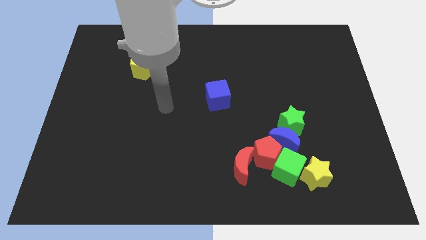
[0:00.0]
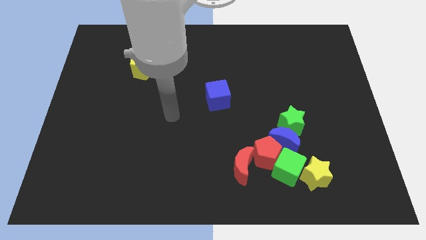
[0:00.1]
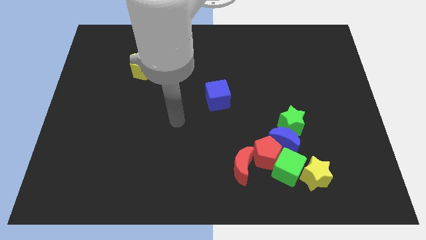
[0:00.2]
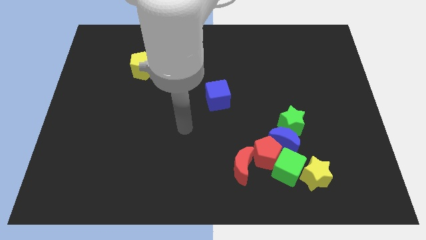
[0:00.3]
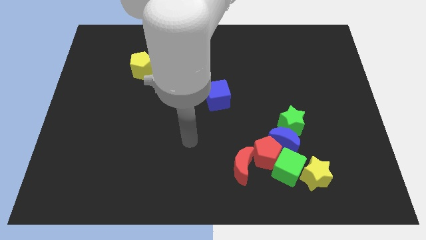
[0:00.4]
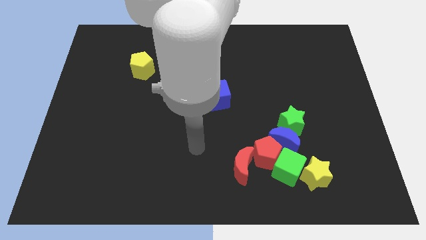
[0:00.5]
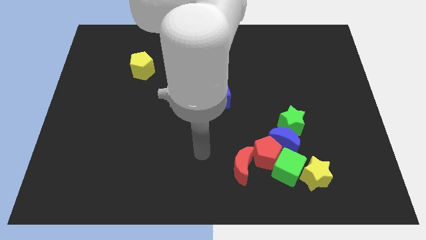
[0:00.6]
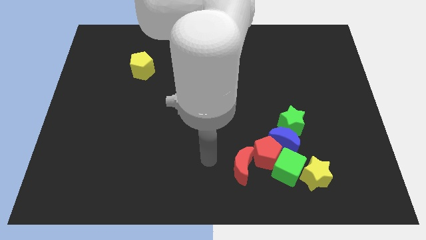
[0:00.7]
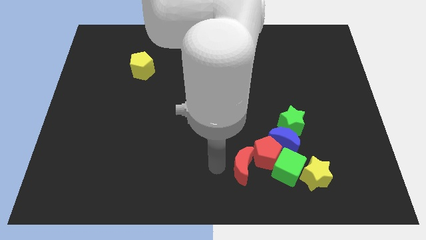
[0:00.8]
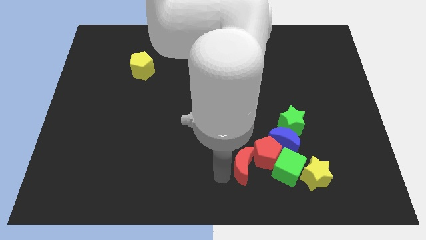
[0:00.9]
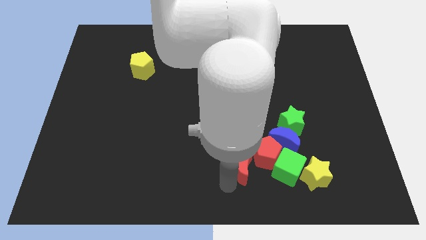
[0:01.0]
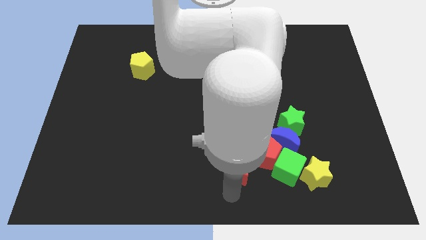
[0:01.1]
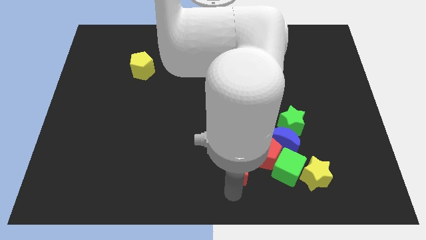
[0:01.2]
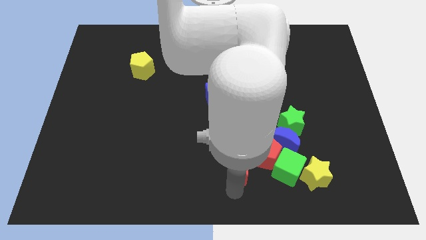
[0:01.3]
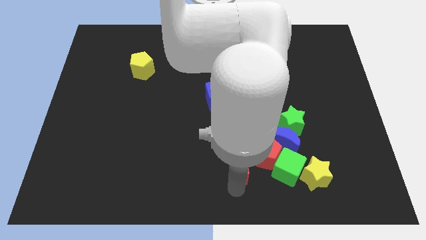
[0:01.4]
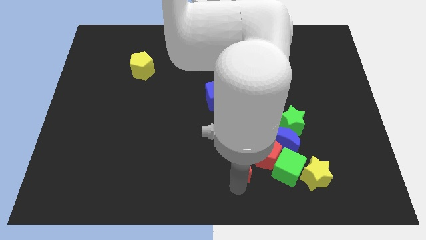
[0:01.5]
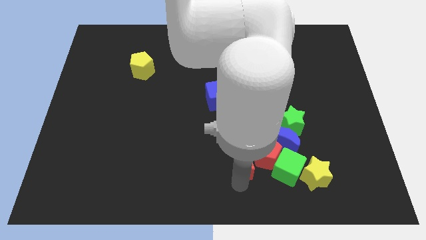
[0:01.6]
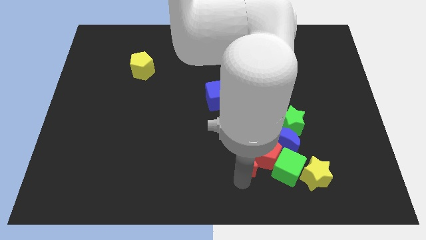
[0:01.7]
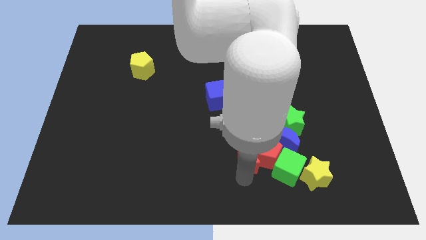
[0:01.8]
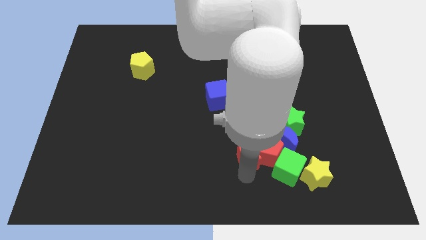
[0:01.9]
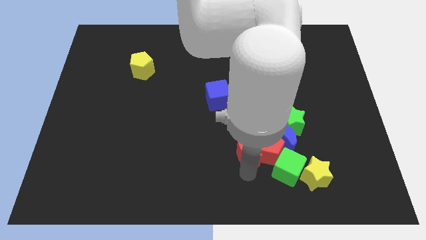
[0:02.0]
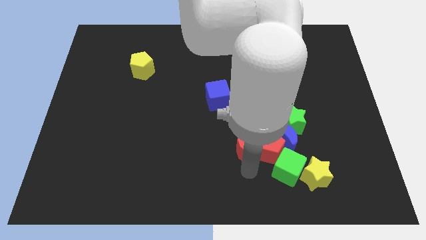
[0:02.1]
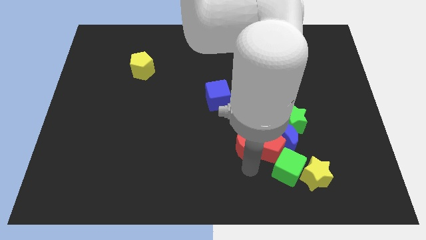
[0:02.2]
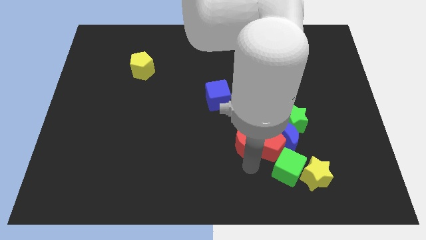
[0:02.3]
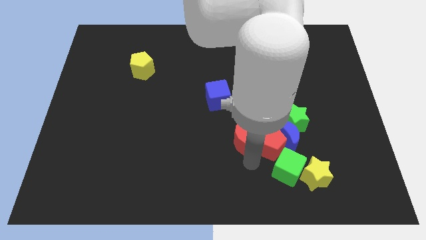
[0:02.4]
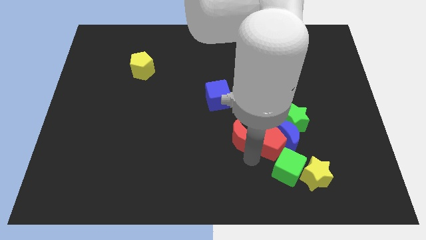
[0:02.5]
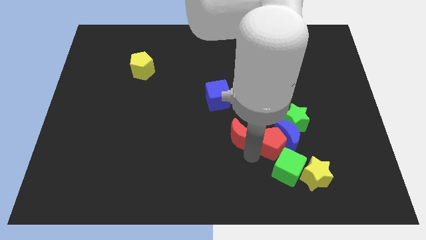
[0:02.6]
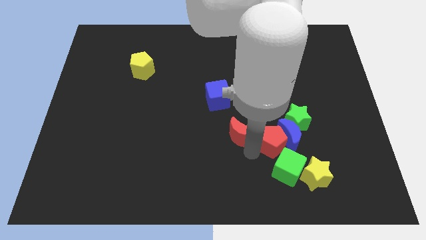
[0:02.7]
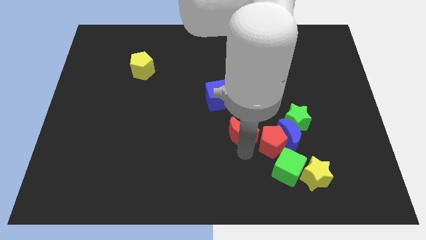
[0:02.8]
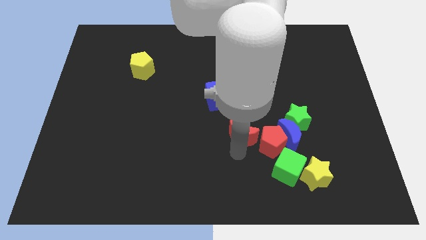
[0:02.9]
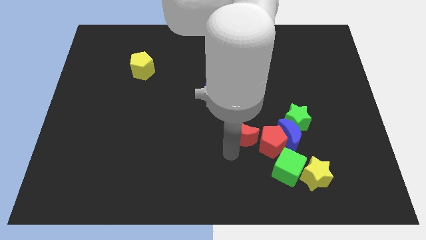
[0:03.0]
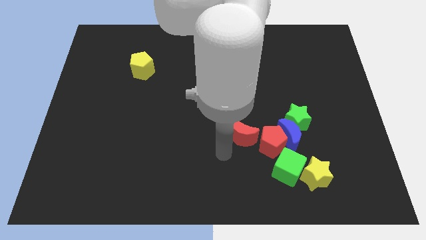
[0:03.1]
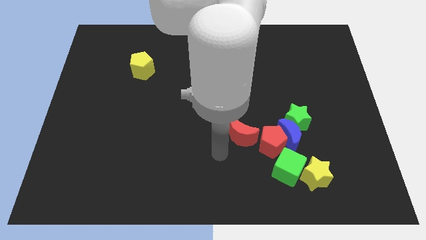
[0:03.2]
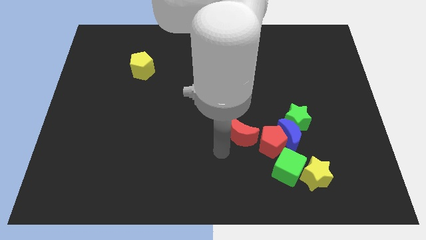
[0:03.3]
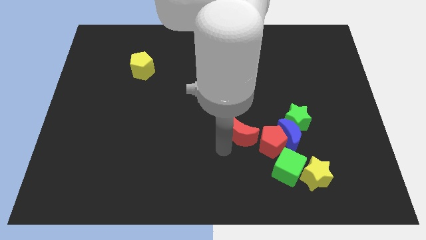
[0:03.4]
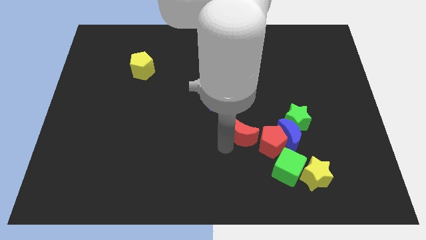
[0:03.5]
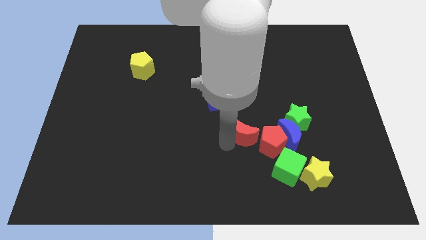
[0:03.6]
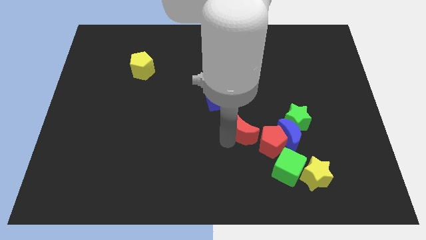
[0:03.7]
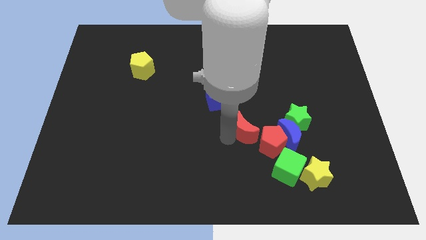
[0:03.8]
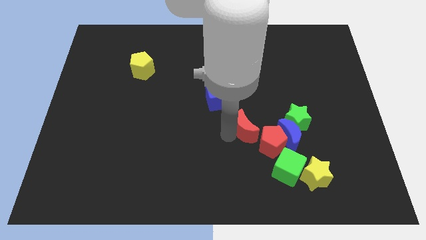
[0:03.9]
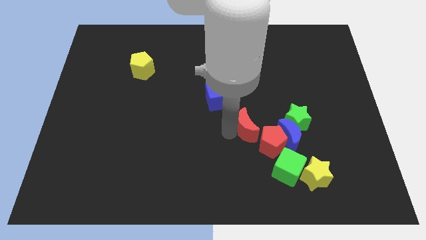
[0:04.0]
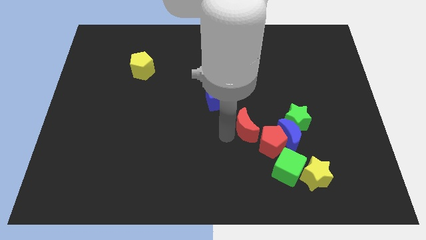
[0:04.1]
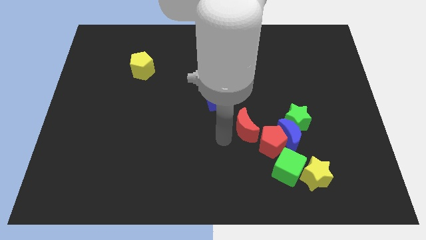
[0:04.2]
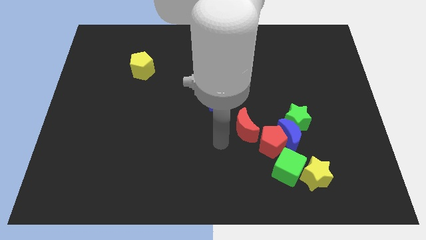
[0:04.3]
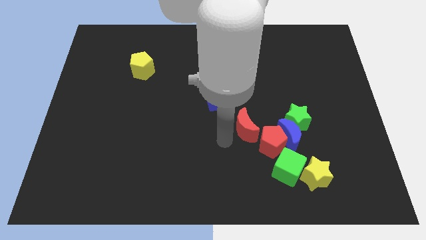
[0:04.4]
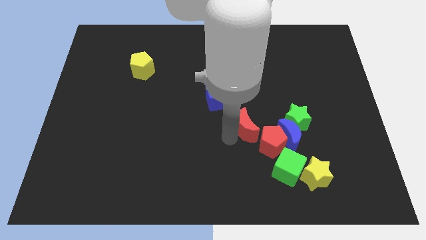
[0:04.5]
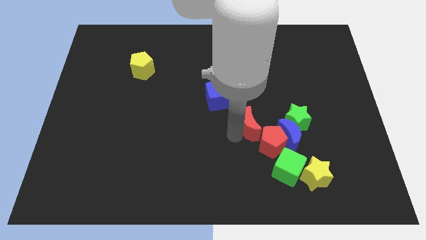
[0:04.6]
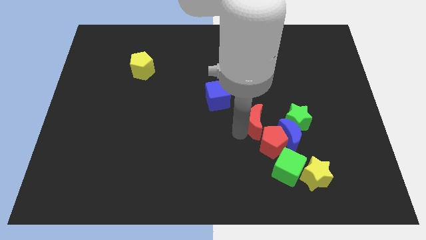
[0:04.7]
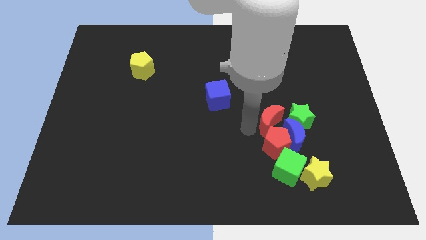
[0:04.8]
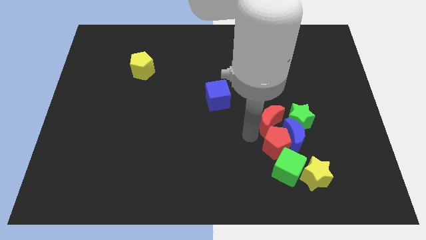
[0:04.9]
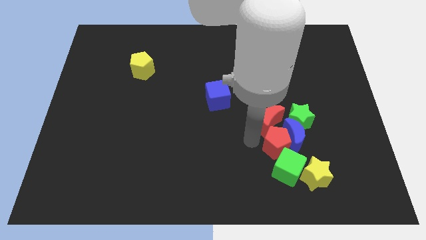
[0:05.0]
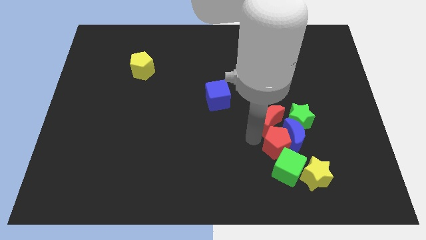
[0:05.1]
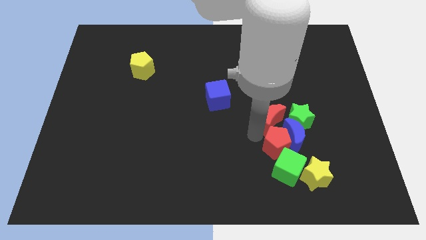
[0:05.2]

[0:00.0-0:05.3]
move the red moon to the top of the blue moon

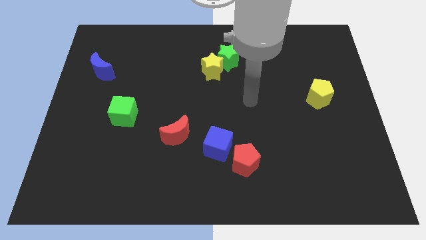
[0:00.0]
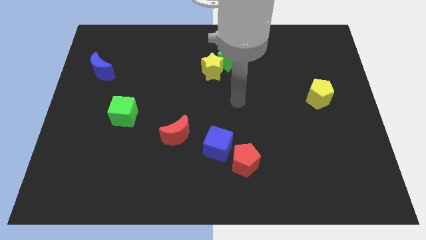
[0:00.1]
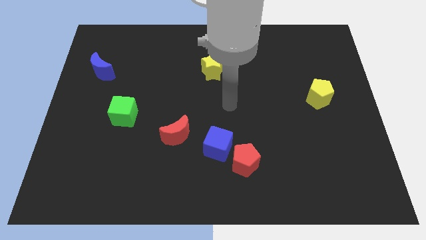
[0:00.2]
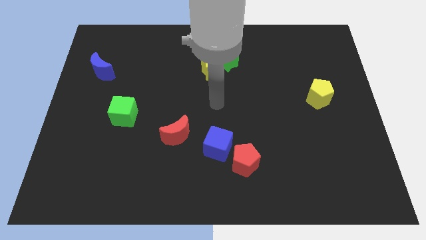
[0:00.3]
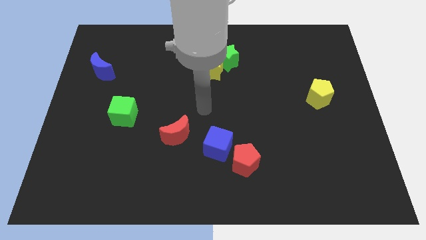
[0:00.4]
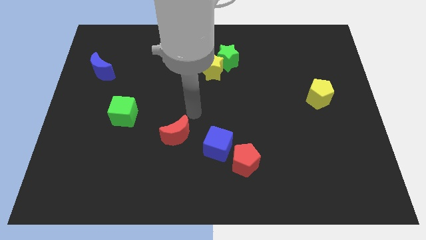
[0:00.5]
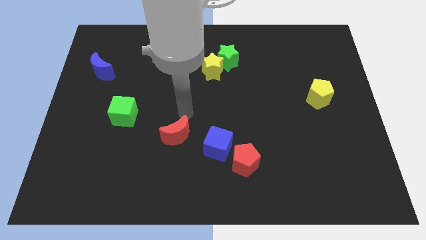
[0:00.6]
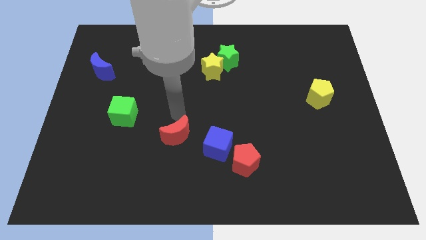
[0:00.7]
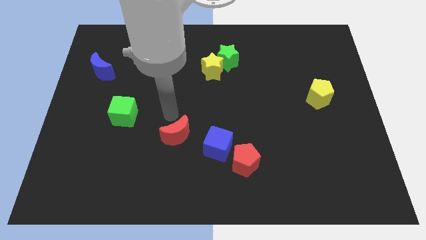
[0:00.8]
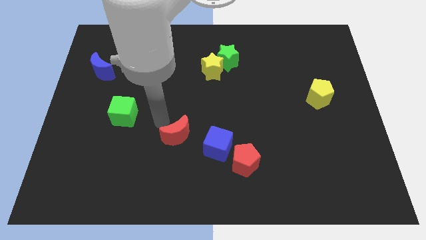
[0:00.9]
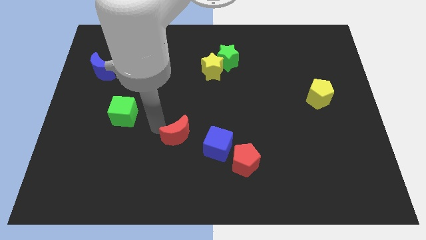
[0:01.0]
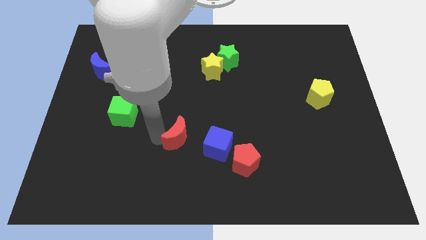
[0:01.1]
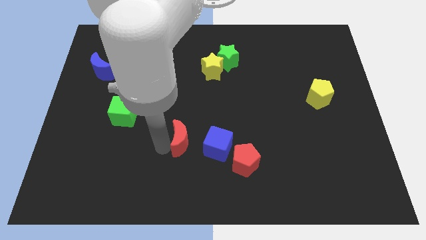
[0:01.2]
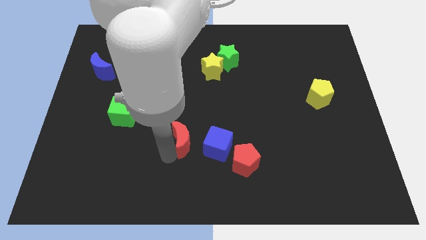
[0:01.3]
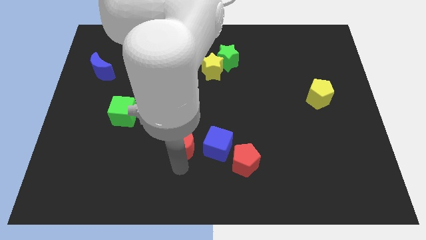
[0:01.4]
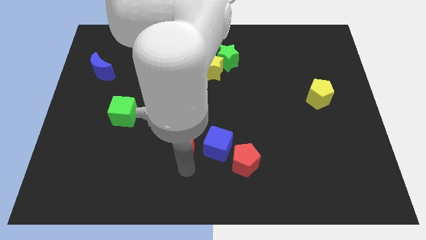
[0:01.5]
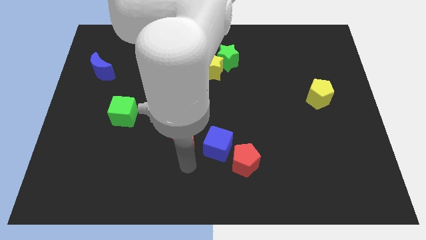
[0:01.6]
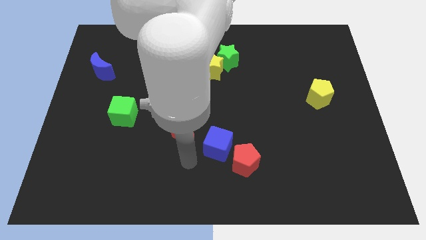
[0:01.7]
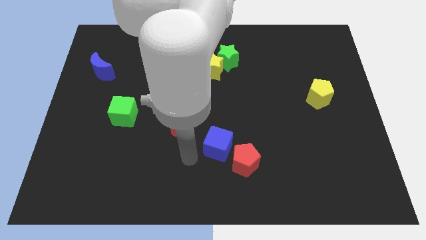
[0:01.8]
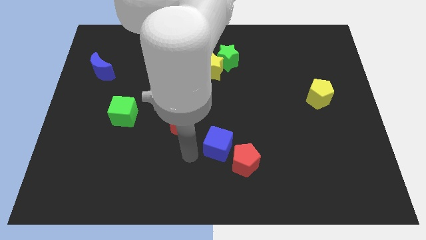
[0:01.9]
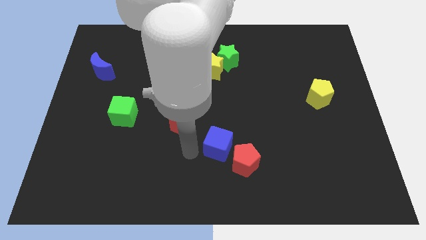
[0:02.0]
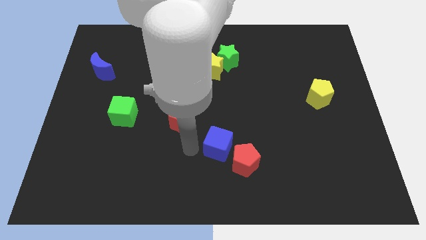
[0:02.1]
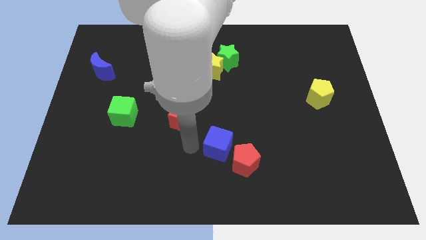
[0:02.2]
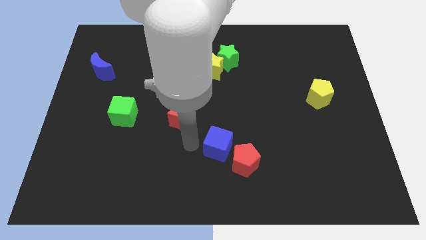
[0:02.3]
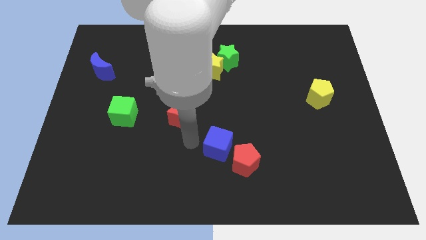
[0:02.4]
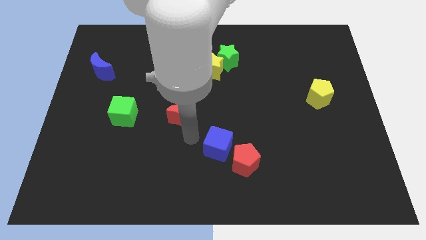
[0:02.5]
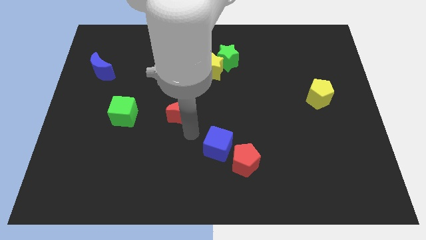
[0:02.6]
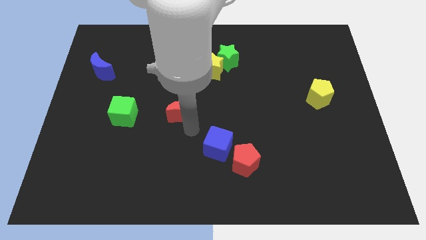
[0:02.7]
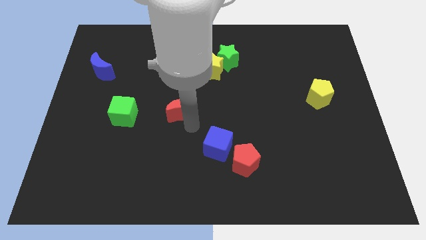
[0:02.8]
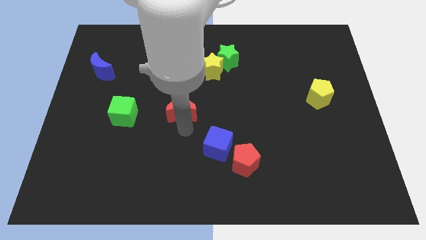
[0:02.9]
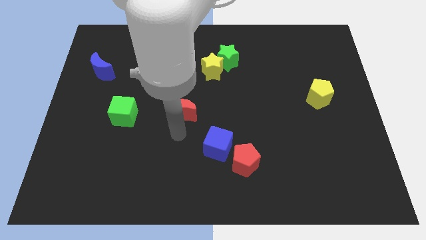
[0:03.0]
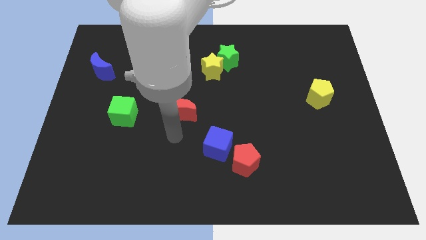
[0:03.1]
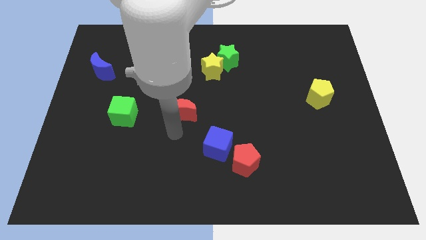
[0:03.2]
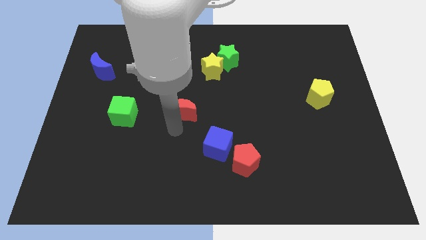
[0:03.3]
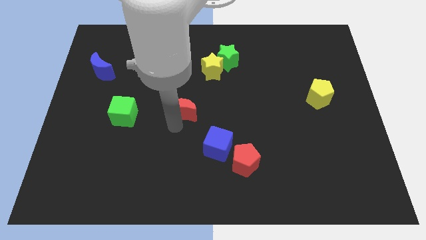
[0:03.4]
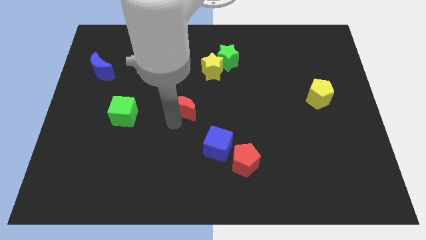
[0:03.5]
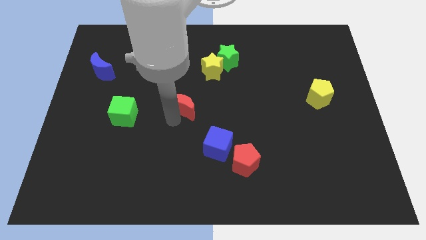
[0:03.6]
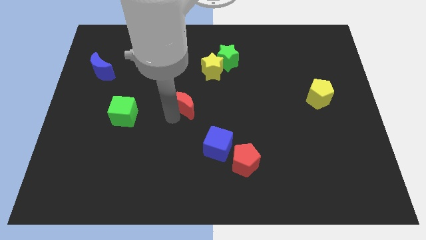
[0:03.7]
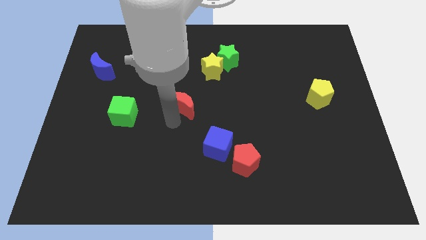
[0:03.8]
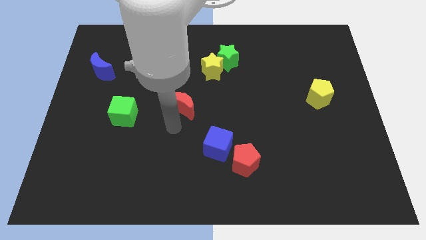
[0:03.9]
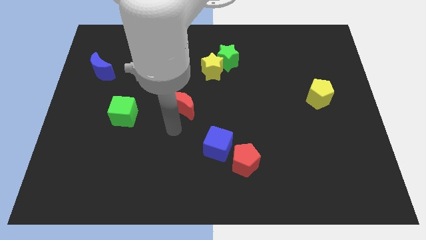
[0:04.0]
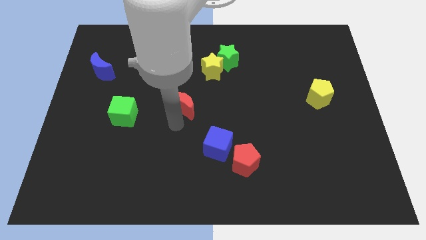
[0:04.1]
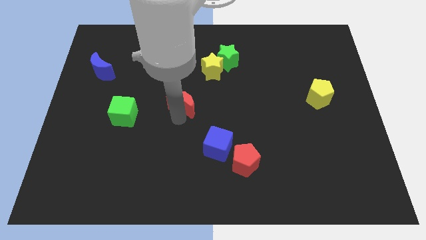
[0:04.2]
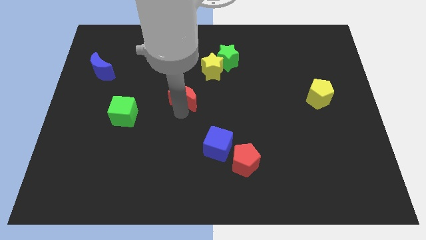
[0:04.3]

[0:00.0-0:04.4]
slide the red moon to the bottom left of the yellow star
